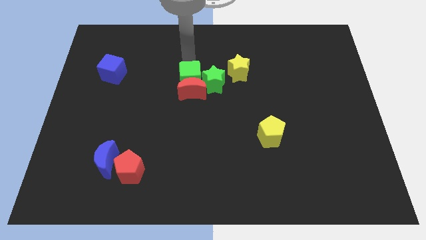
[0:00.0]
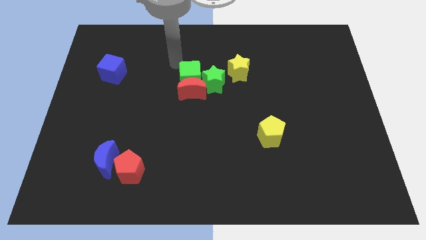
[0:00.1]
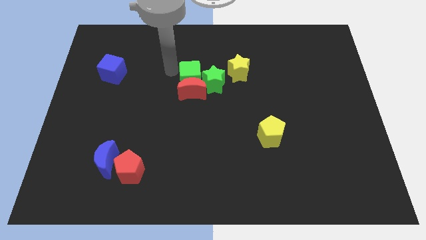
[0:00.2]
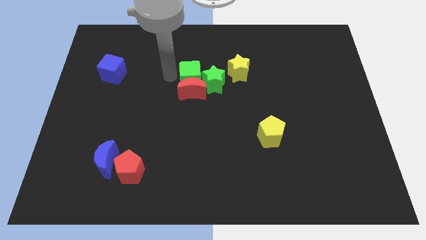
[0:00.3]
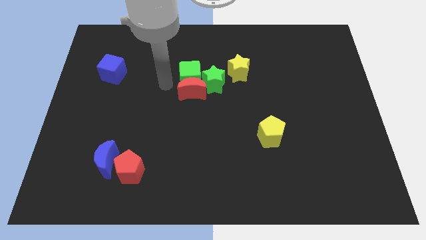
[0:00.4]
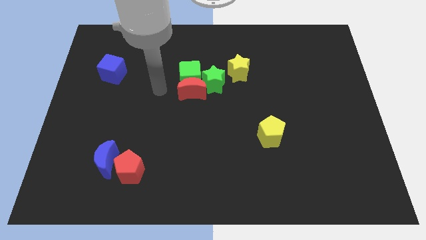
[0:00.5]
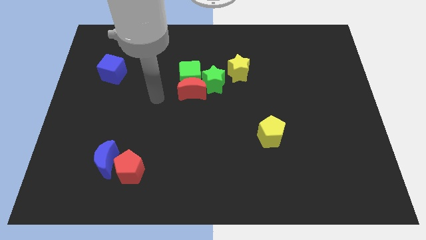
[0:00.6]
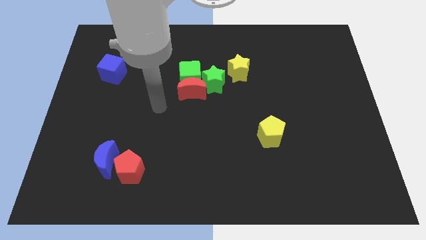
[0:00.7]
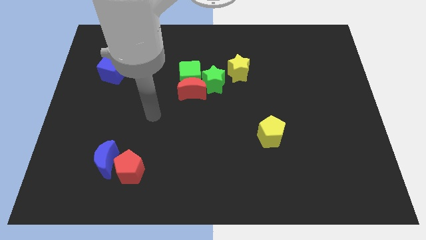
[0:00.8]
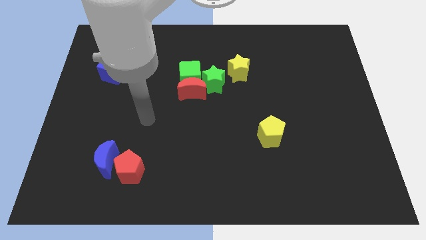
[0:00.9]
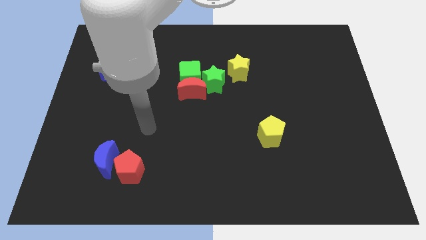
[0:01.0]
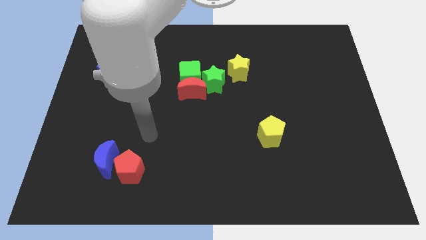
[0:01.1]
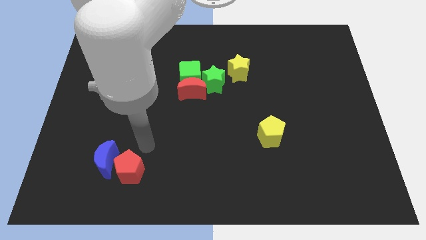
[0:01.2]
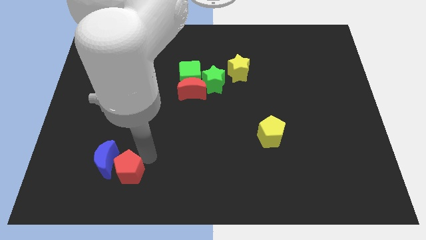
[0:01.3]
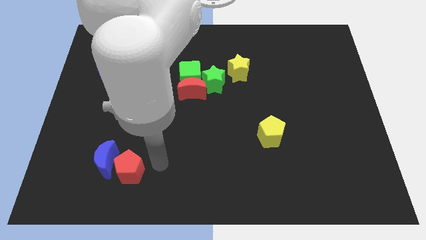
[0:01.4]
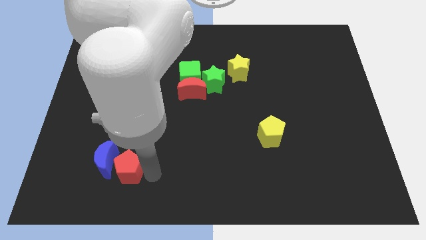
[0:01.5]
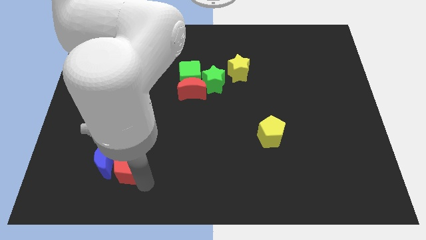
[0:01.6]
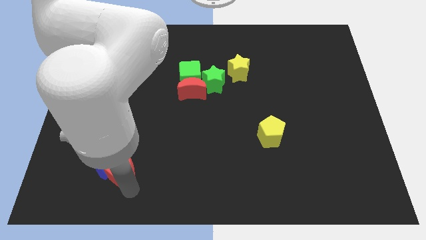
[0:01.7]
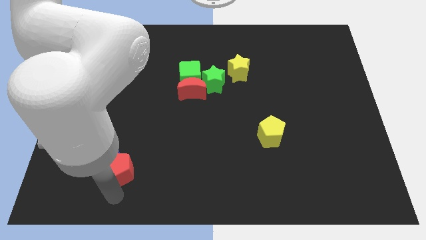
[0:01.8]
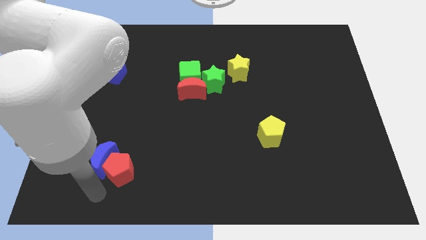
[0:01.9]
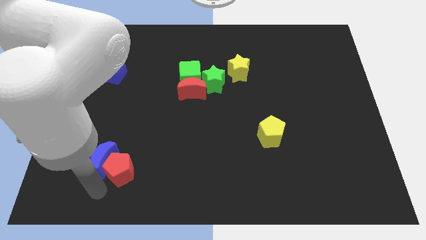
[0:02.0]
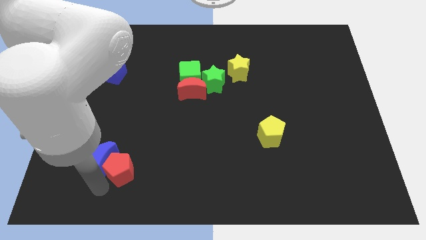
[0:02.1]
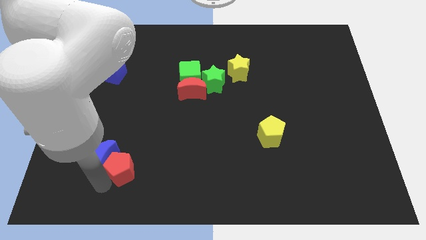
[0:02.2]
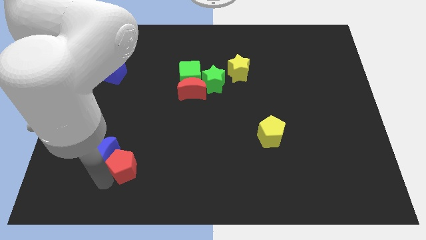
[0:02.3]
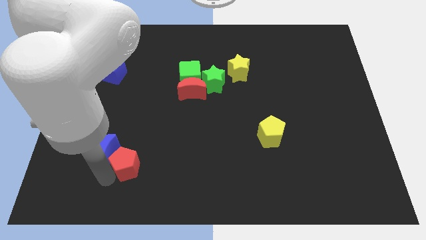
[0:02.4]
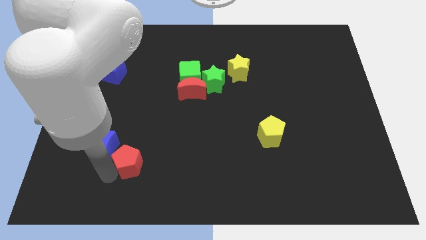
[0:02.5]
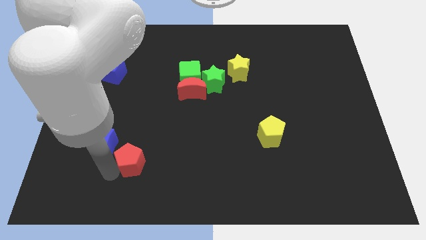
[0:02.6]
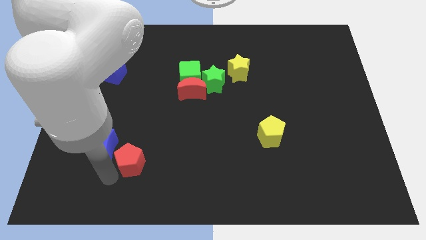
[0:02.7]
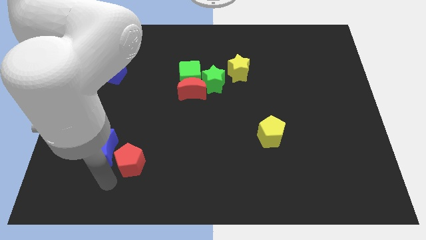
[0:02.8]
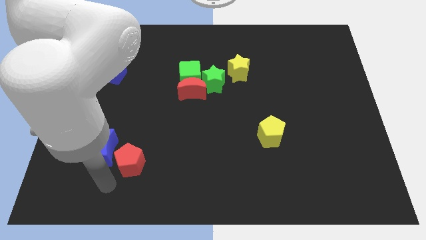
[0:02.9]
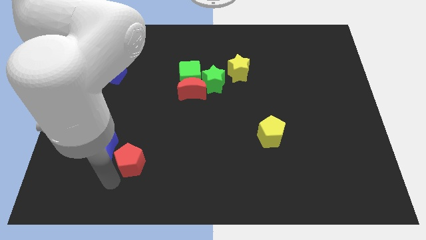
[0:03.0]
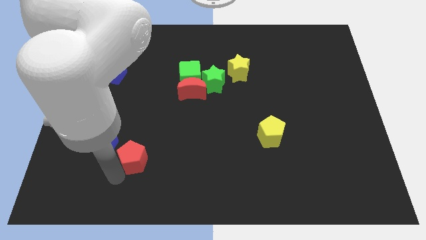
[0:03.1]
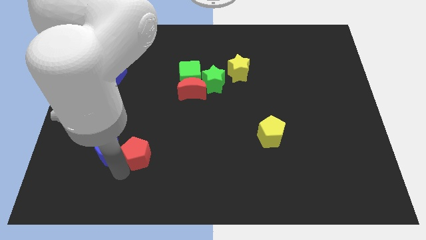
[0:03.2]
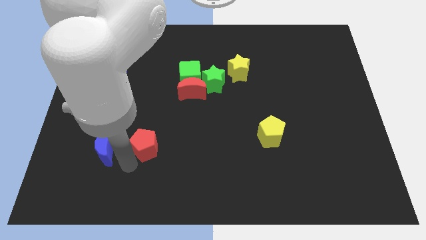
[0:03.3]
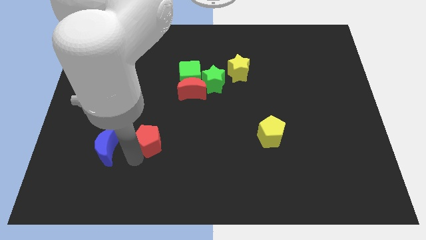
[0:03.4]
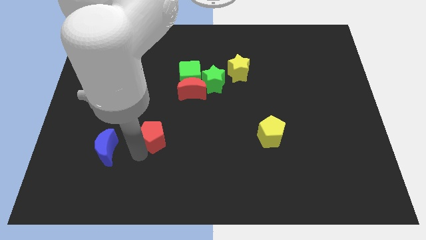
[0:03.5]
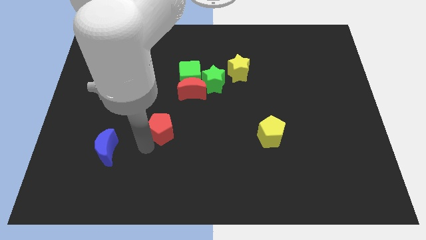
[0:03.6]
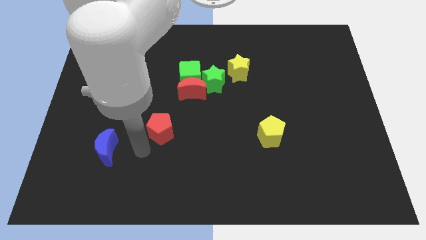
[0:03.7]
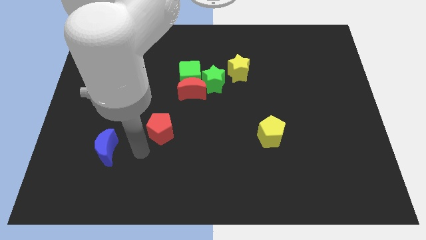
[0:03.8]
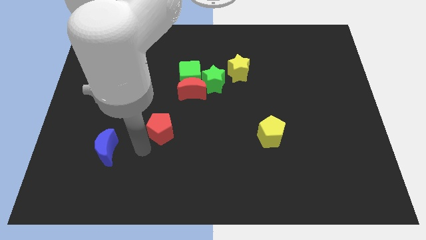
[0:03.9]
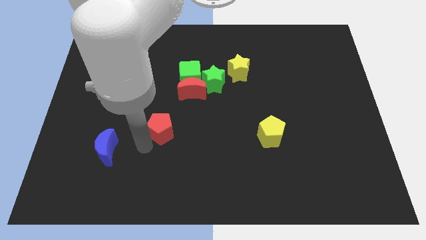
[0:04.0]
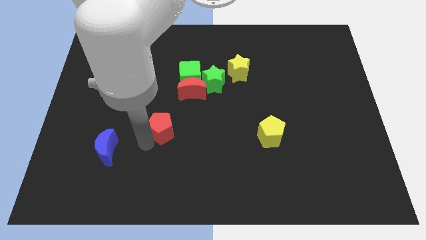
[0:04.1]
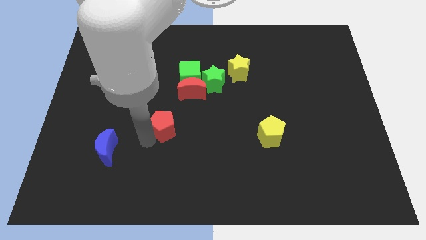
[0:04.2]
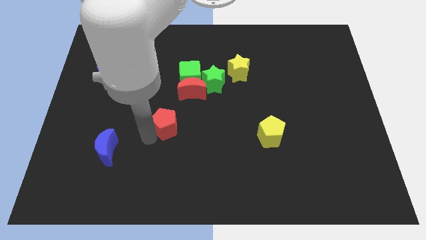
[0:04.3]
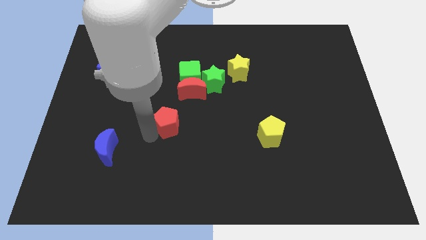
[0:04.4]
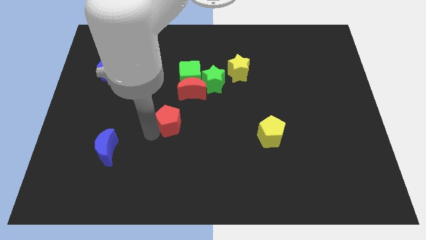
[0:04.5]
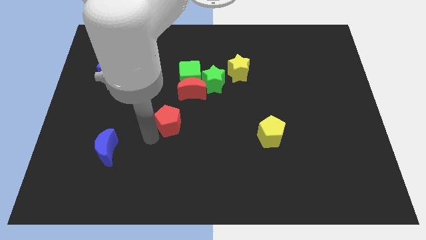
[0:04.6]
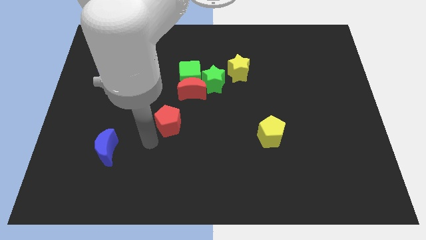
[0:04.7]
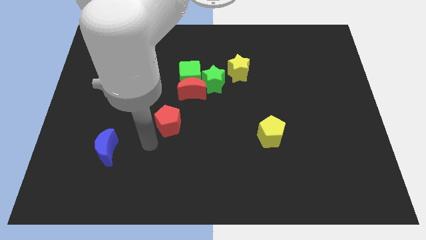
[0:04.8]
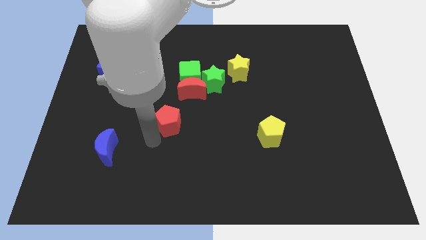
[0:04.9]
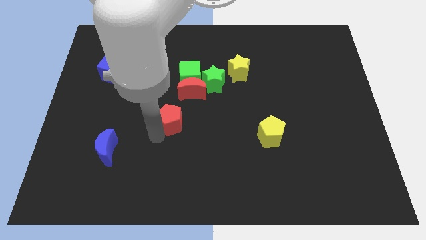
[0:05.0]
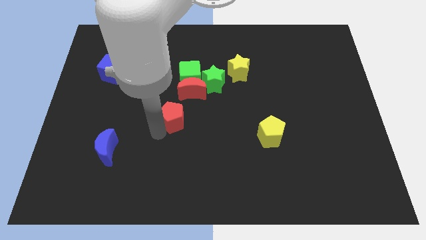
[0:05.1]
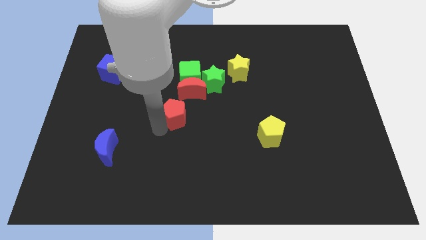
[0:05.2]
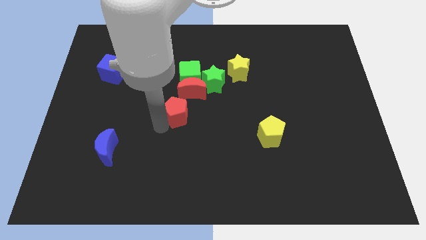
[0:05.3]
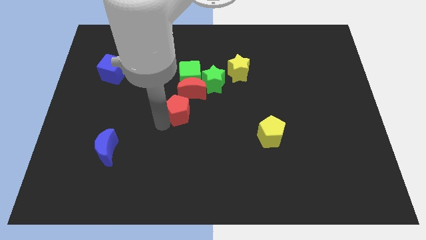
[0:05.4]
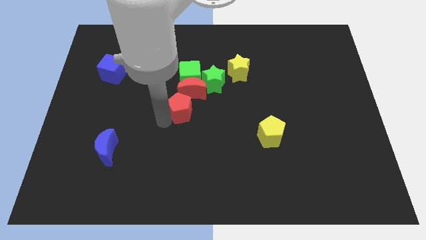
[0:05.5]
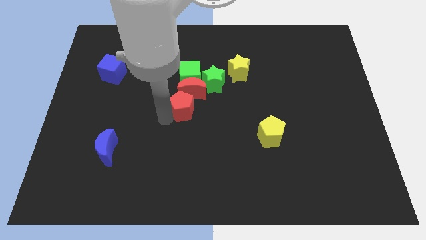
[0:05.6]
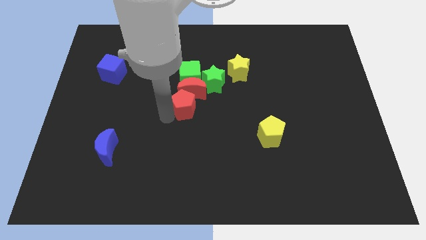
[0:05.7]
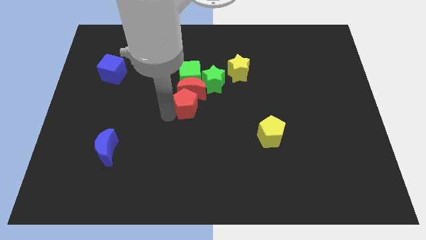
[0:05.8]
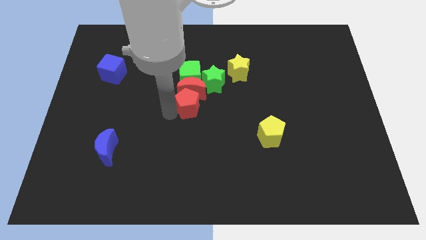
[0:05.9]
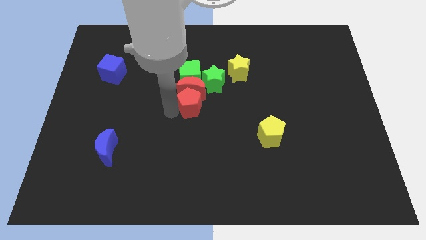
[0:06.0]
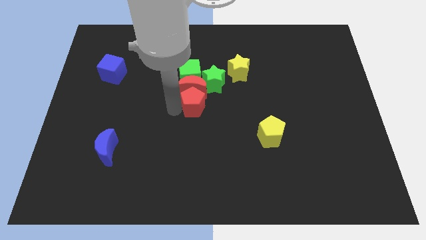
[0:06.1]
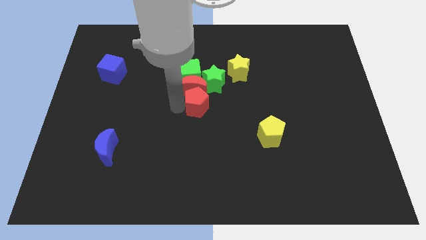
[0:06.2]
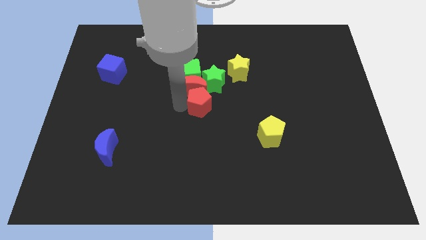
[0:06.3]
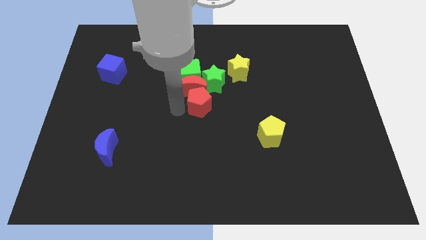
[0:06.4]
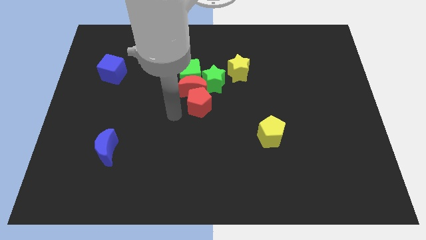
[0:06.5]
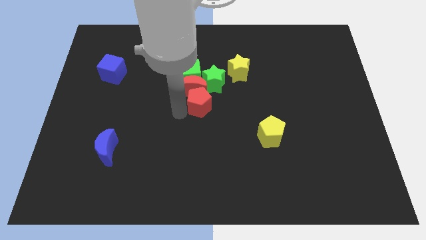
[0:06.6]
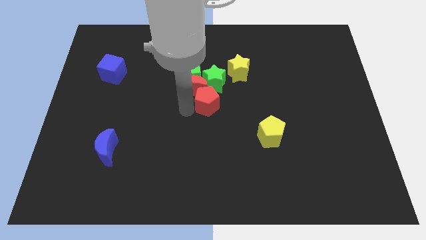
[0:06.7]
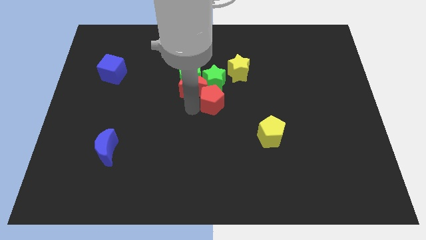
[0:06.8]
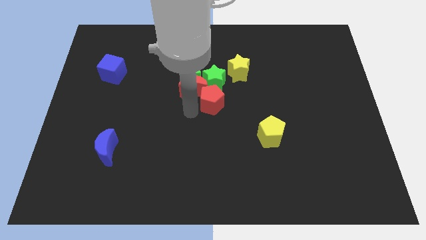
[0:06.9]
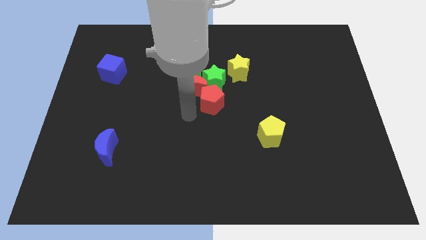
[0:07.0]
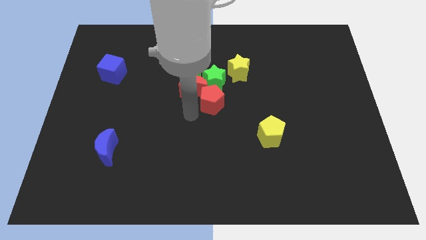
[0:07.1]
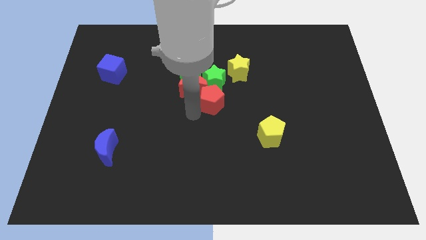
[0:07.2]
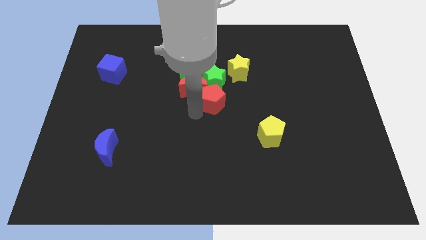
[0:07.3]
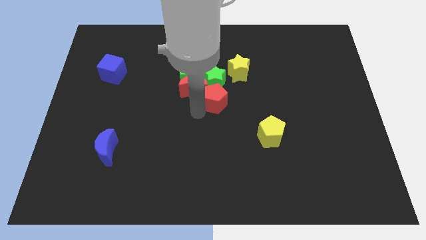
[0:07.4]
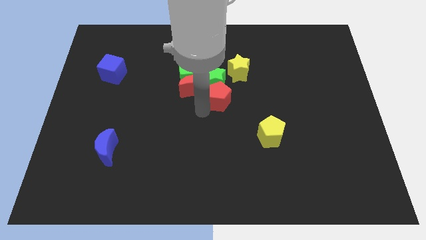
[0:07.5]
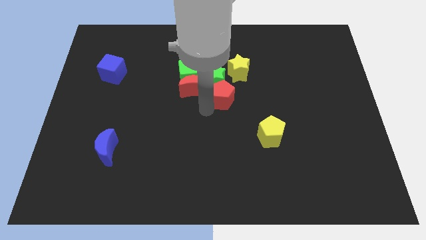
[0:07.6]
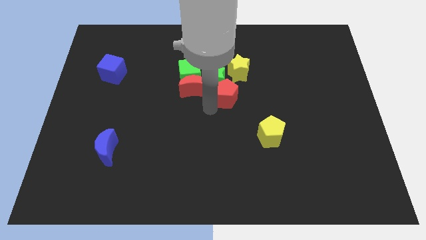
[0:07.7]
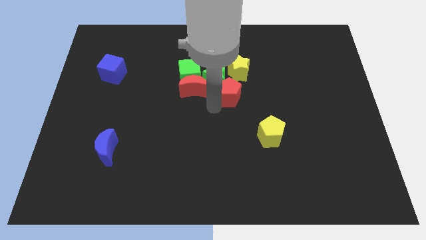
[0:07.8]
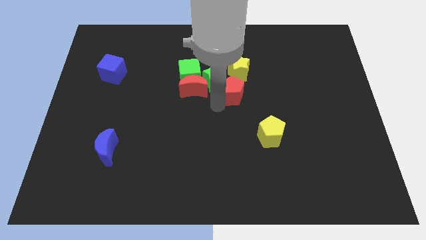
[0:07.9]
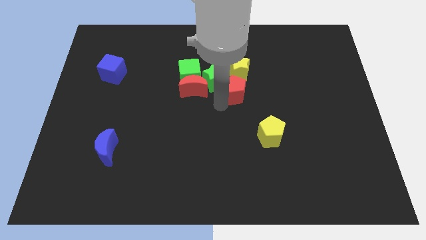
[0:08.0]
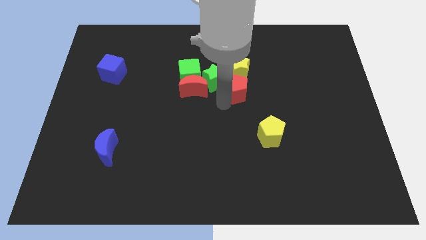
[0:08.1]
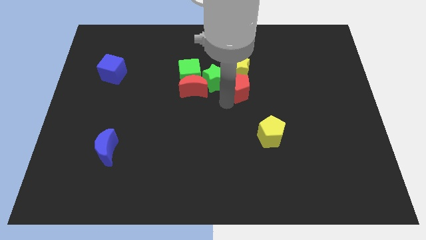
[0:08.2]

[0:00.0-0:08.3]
slide the red pentagon towards the yellow star
